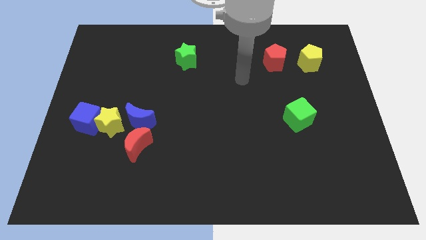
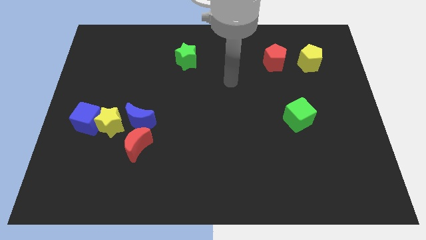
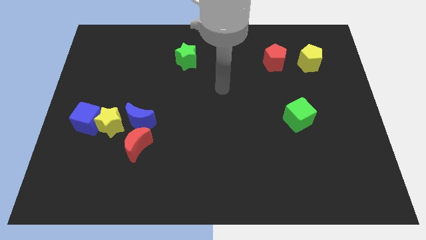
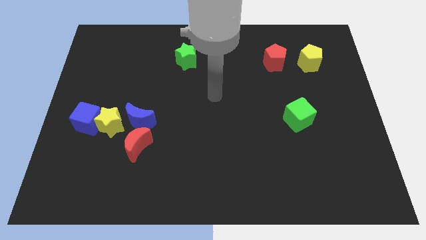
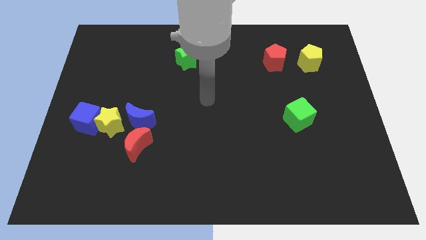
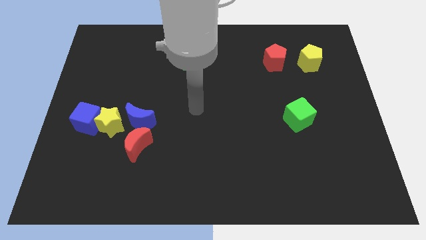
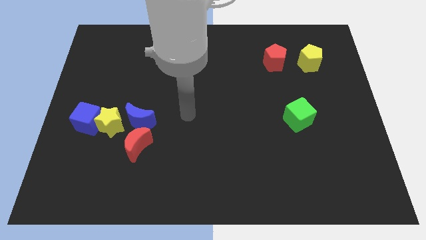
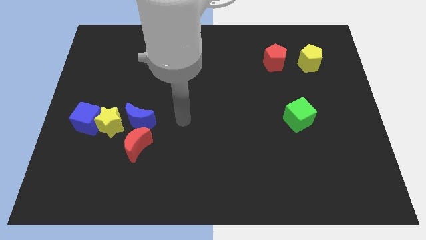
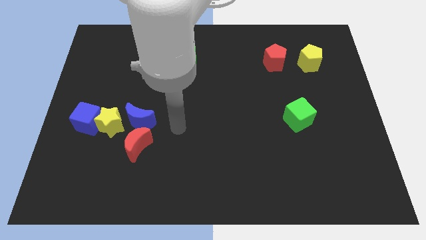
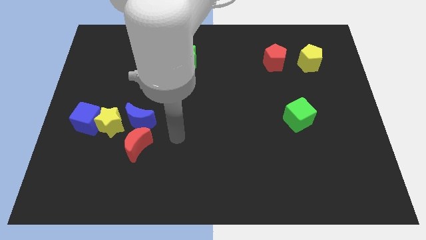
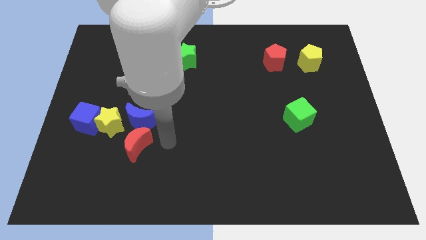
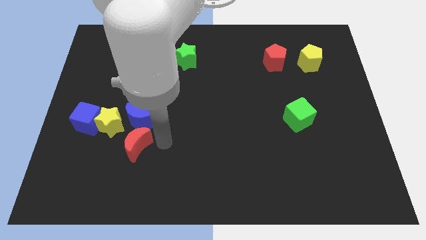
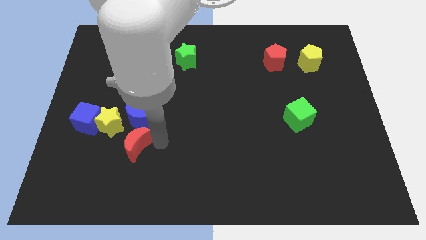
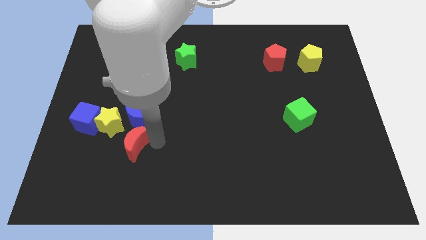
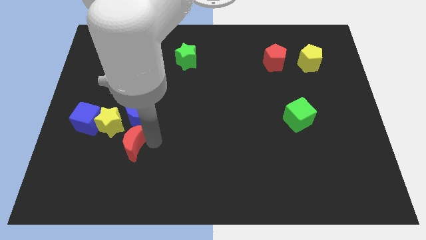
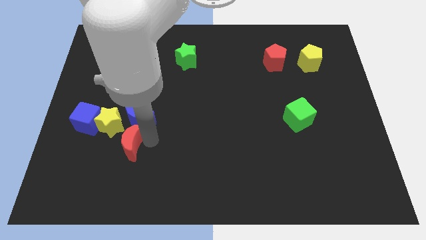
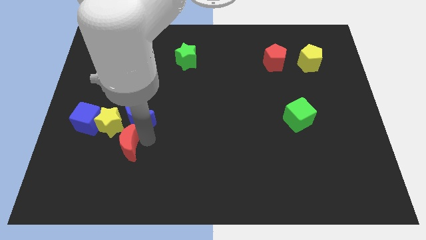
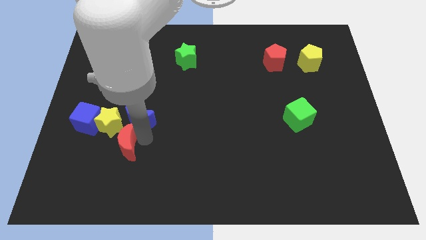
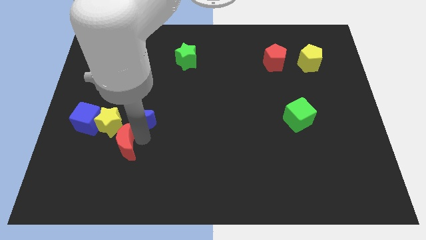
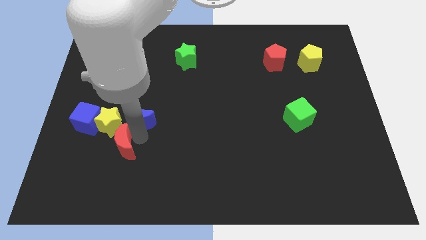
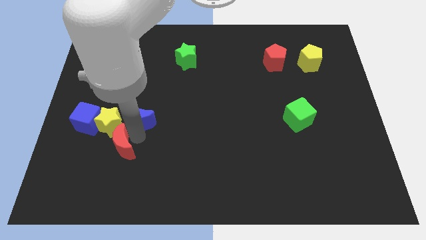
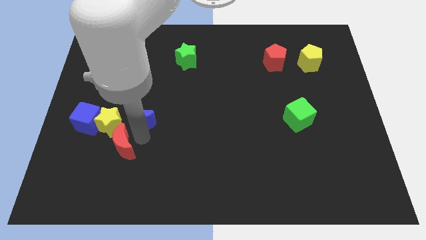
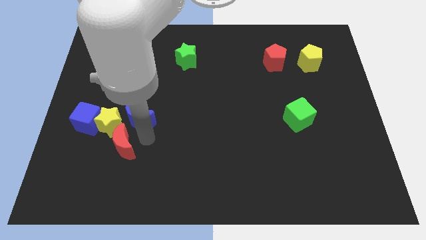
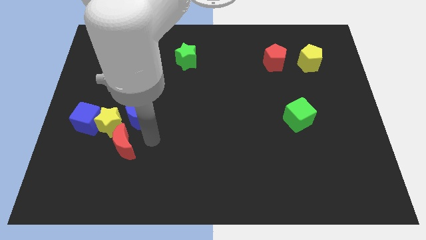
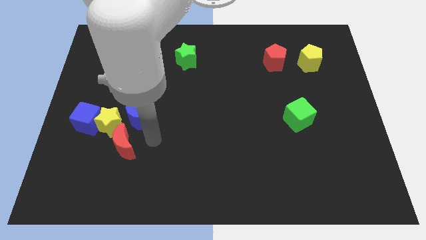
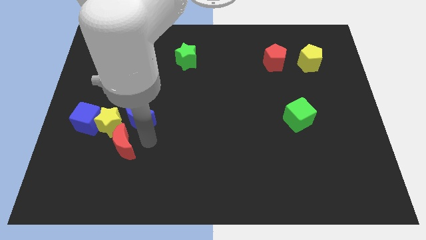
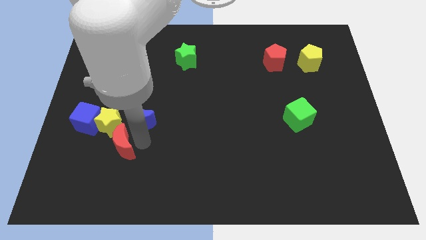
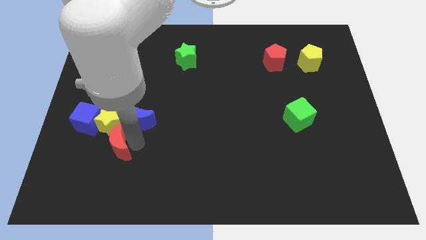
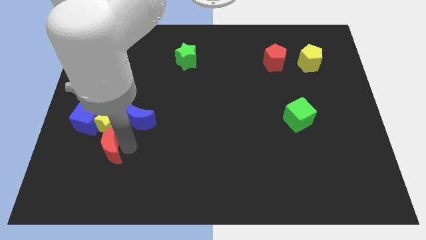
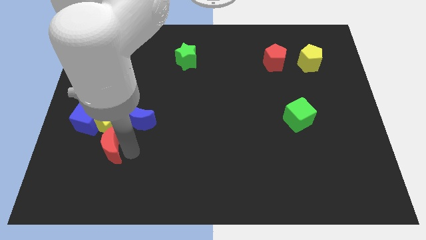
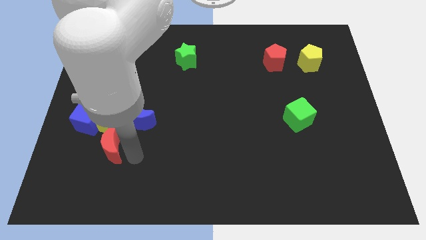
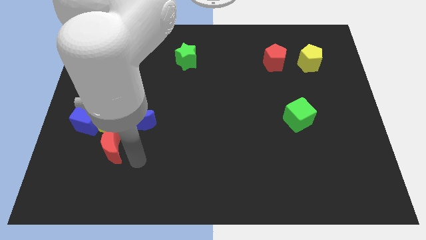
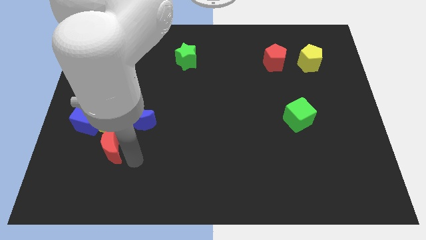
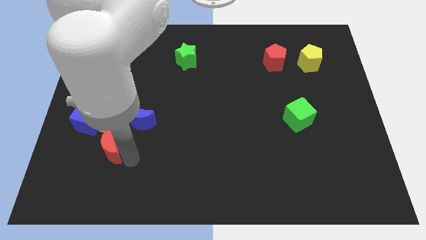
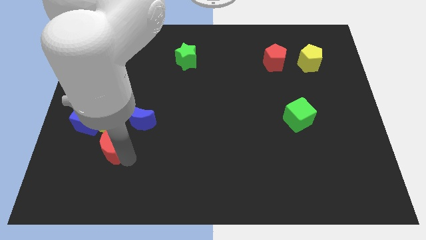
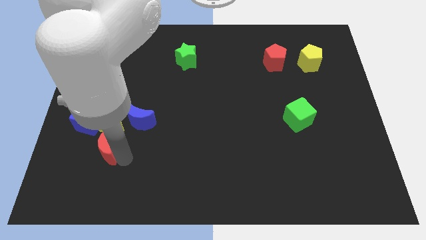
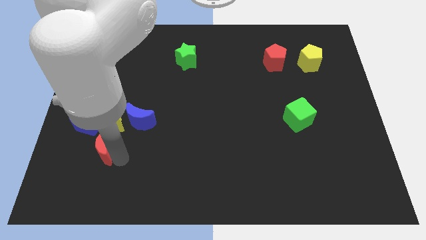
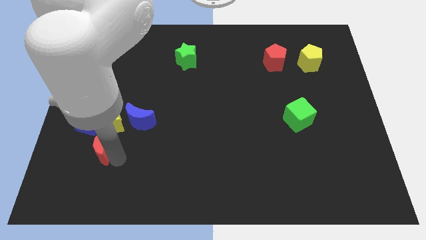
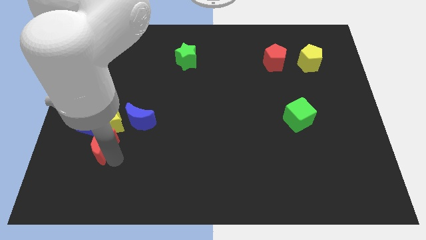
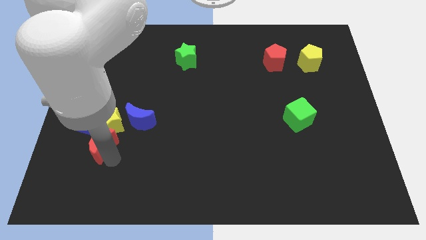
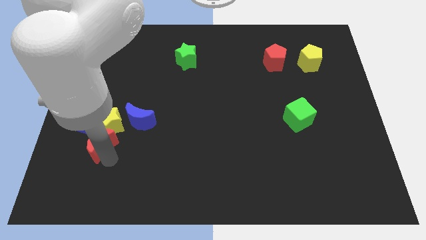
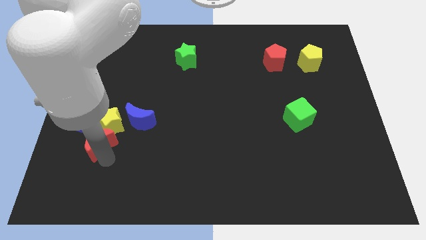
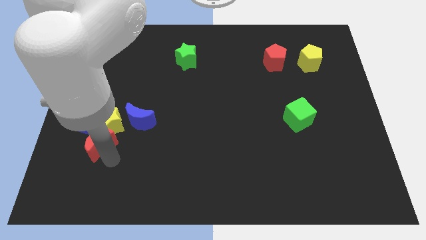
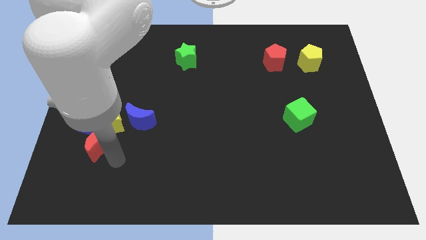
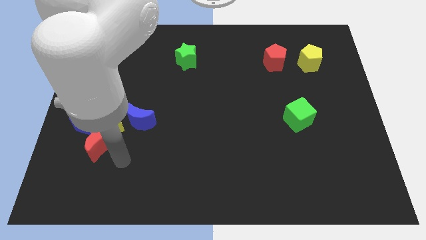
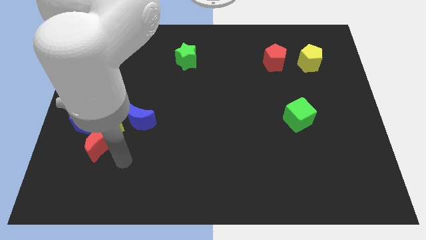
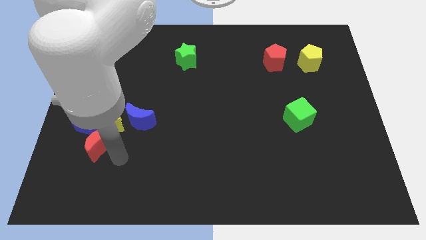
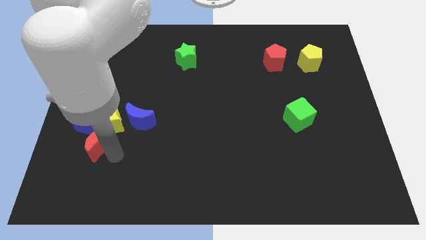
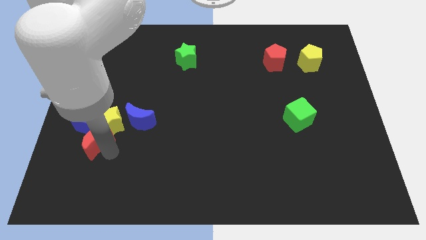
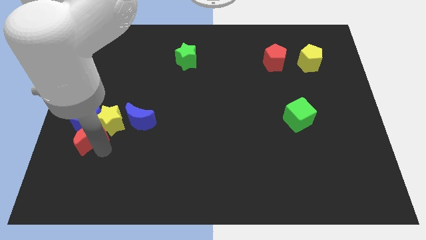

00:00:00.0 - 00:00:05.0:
push the red moon next to the blue cube

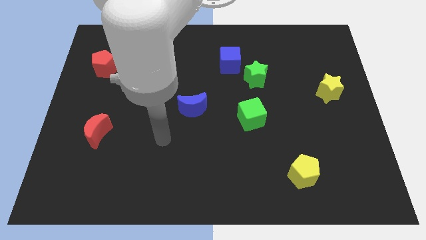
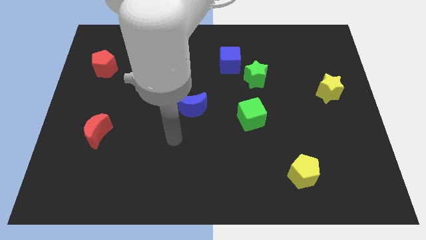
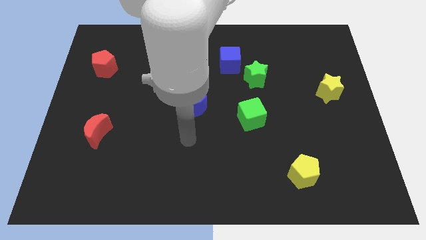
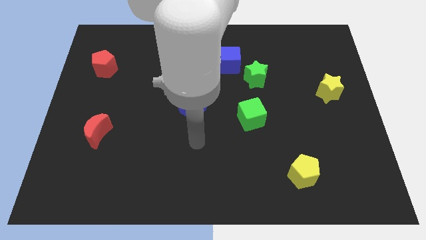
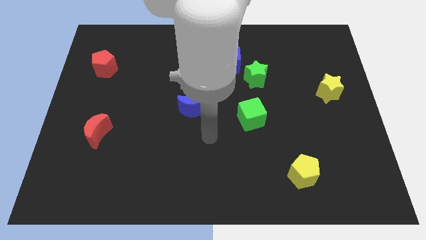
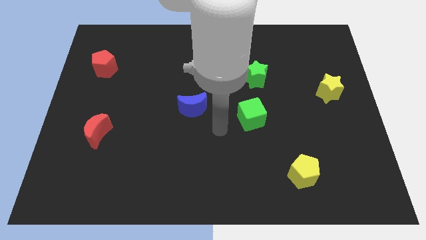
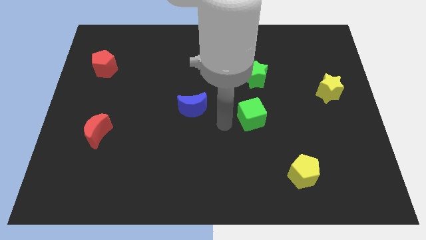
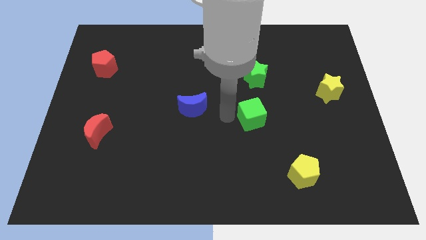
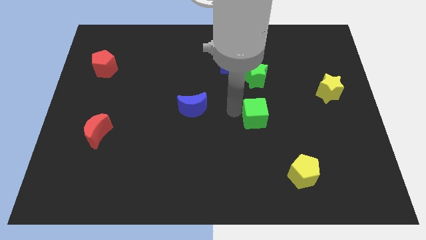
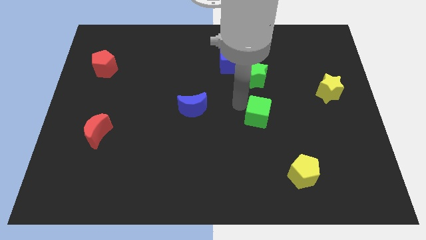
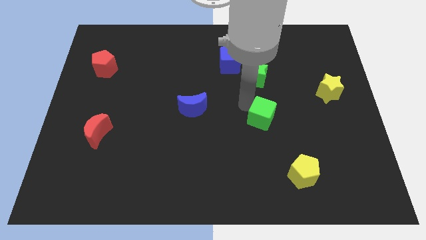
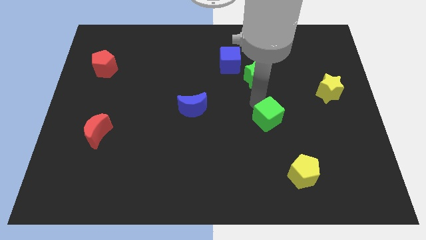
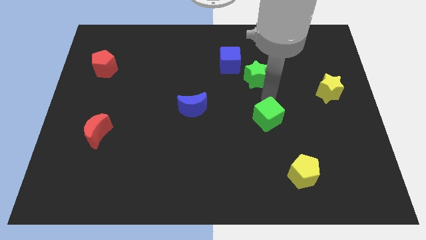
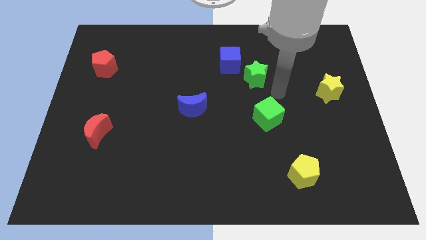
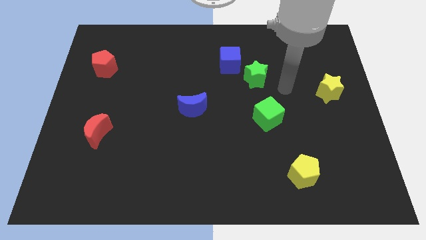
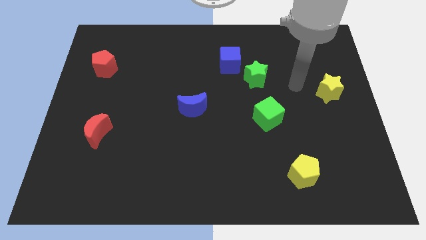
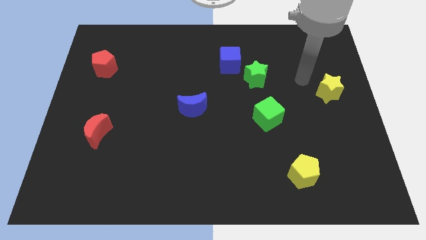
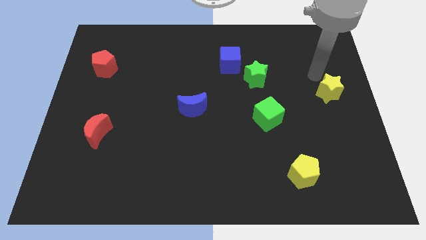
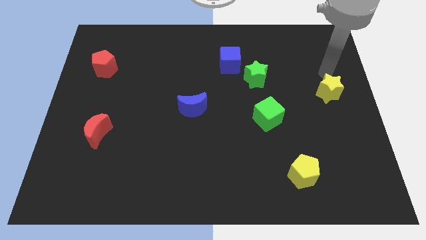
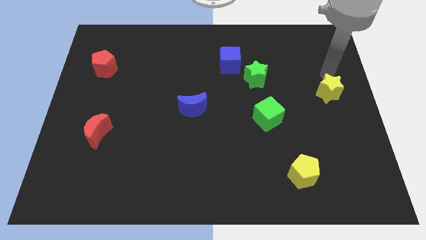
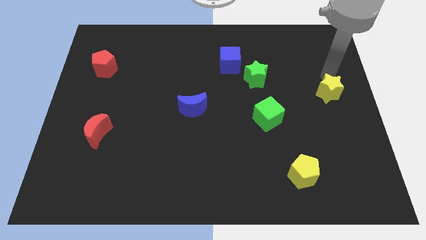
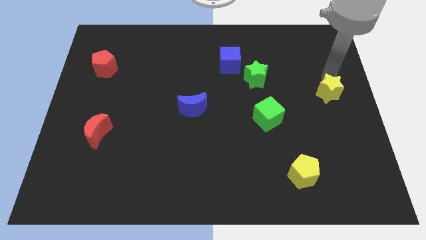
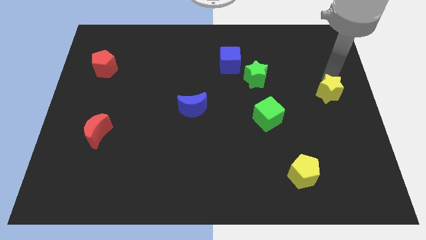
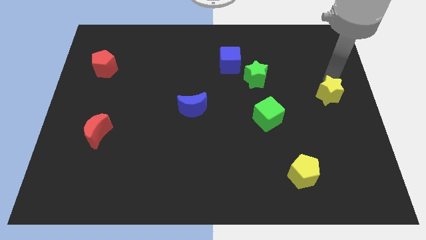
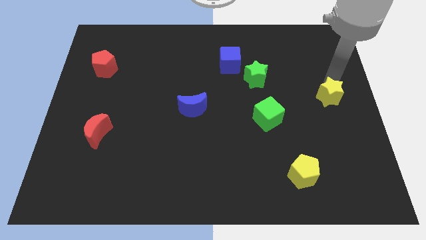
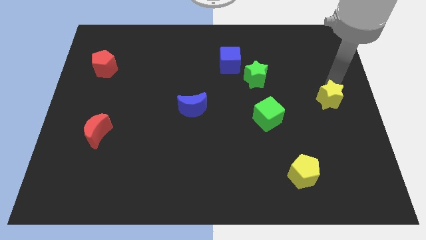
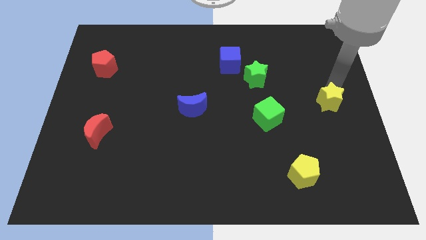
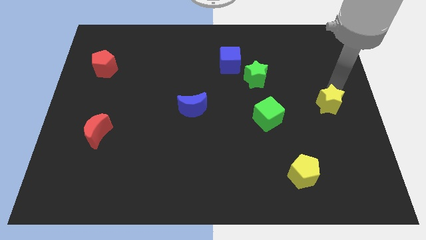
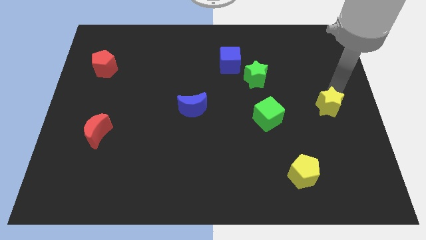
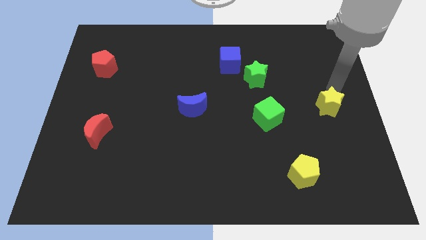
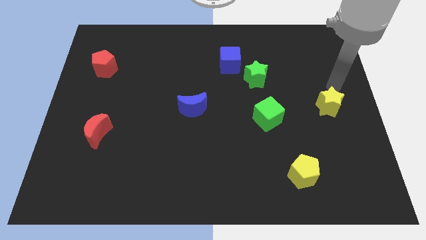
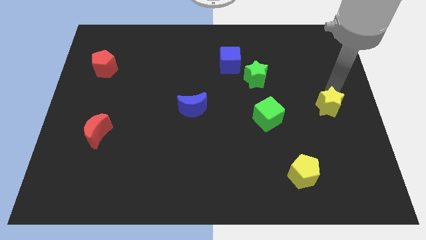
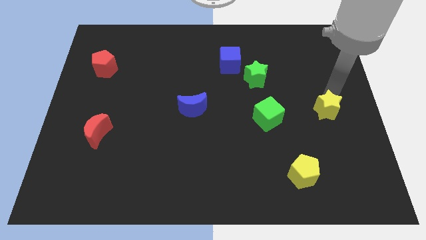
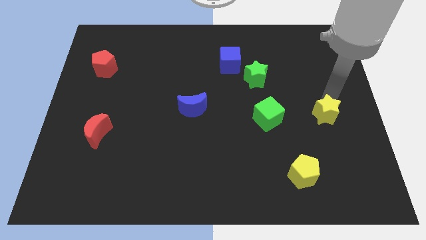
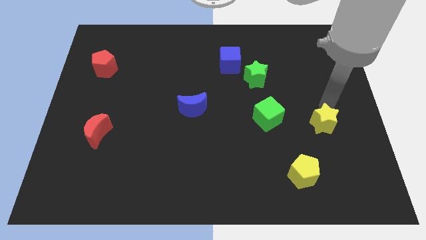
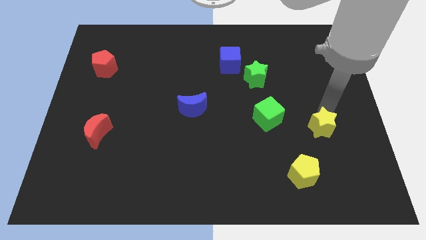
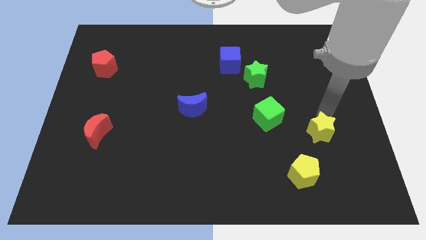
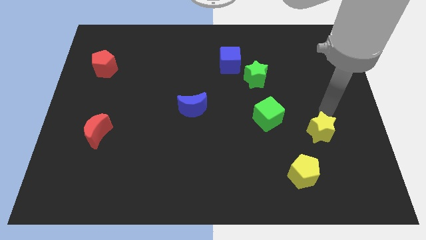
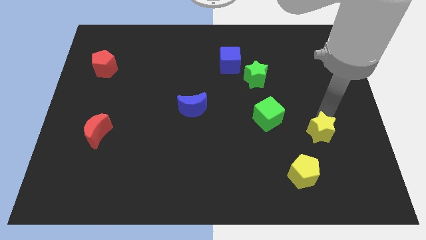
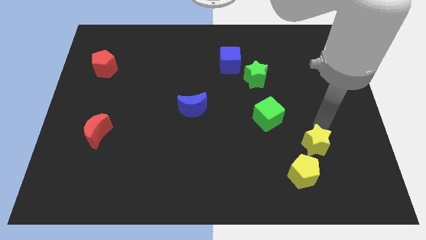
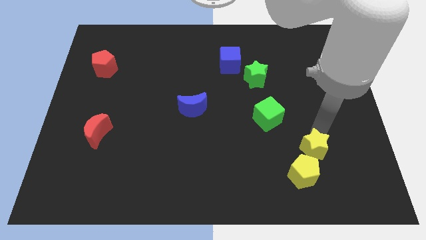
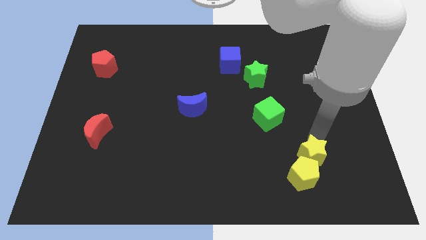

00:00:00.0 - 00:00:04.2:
slide the yellow star towards the yellow pentagon
